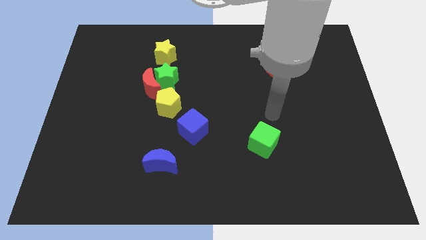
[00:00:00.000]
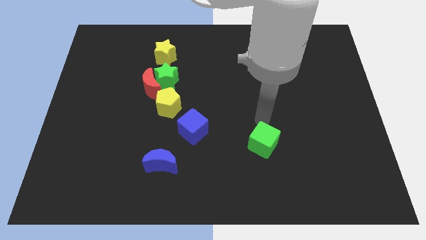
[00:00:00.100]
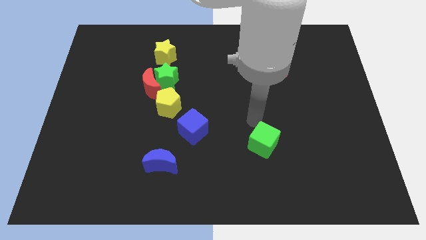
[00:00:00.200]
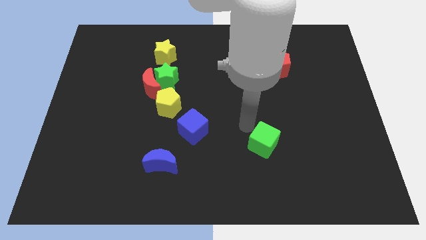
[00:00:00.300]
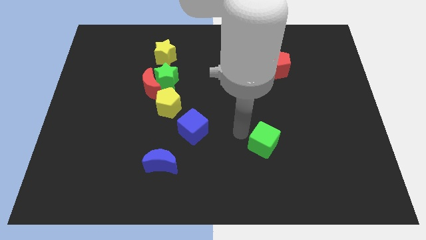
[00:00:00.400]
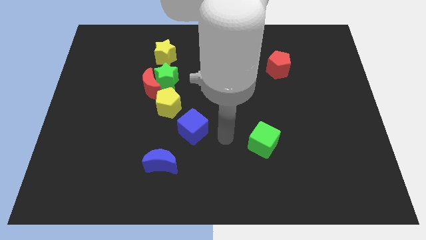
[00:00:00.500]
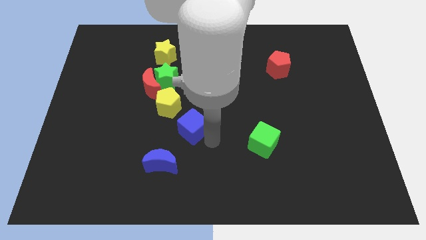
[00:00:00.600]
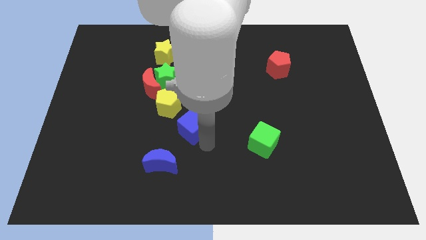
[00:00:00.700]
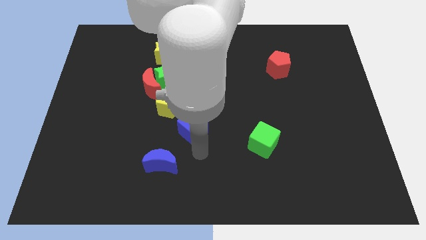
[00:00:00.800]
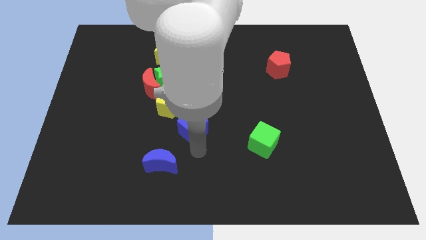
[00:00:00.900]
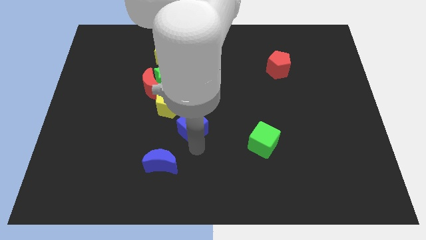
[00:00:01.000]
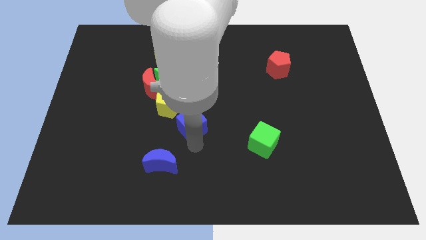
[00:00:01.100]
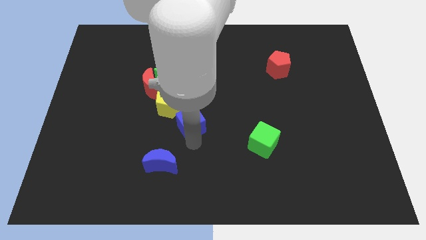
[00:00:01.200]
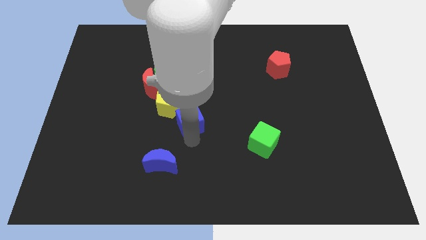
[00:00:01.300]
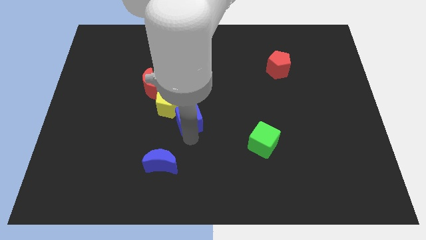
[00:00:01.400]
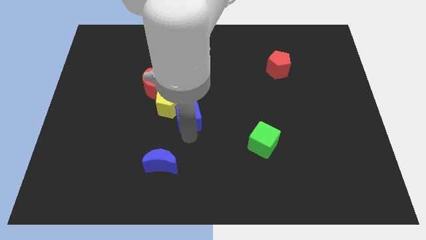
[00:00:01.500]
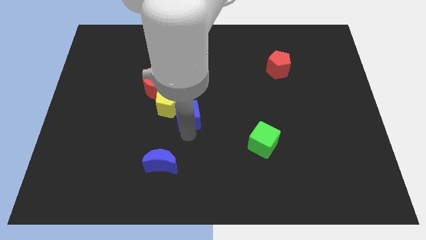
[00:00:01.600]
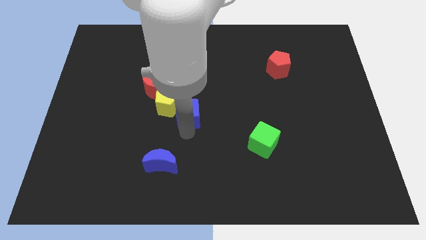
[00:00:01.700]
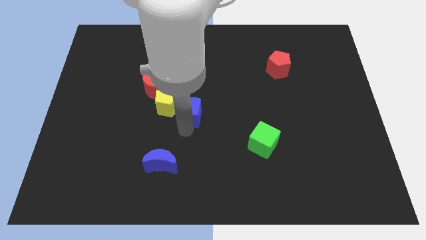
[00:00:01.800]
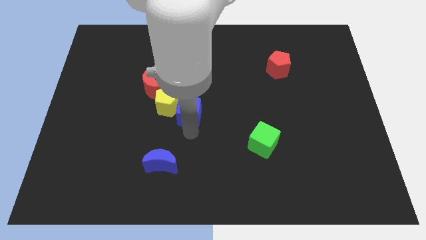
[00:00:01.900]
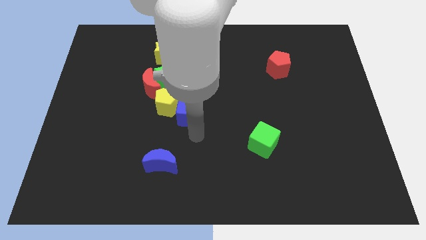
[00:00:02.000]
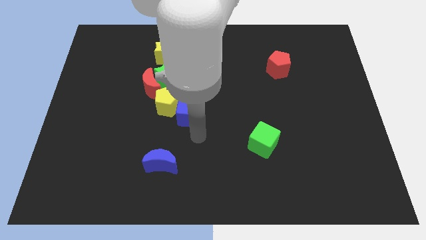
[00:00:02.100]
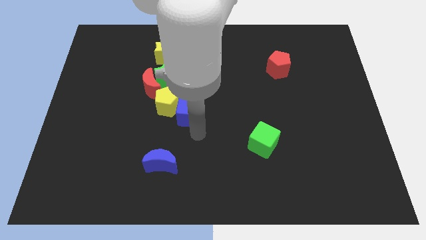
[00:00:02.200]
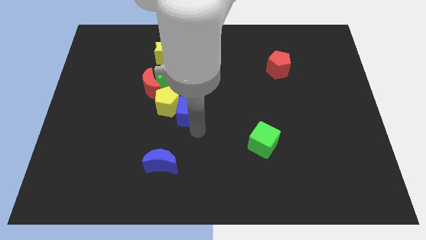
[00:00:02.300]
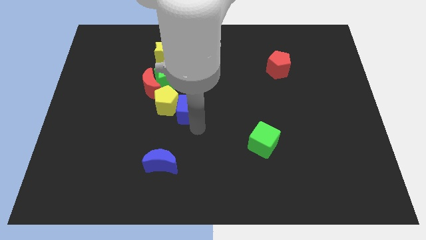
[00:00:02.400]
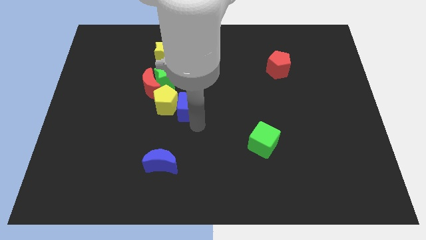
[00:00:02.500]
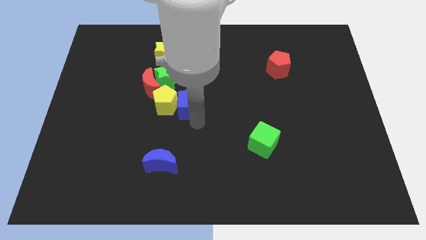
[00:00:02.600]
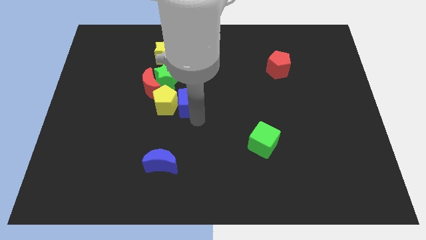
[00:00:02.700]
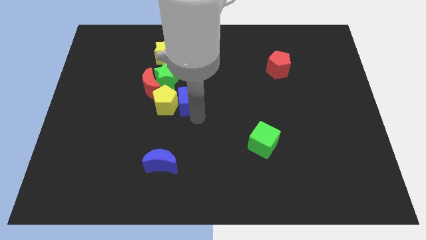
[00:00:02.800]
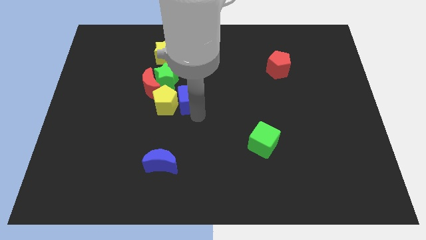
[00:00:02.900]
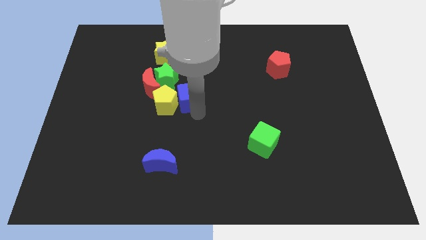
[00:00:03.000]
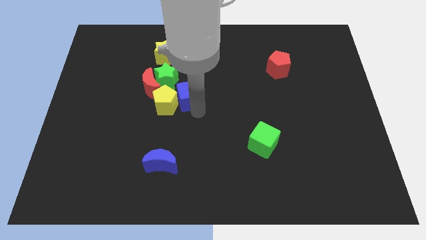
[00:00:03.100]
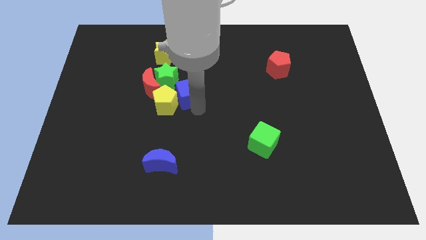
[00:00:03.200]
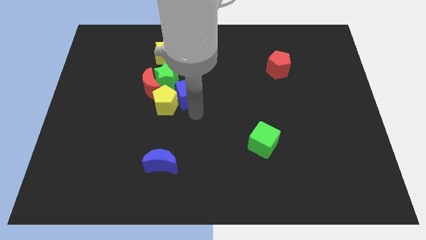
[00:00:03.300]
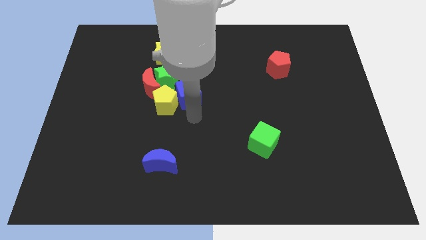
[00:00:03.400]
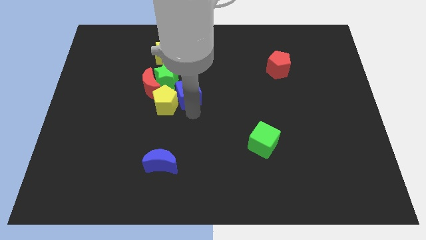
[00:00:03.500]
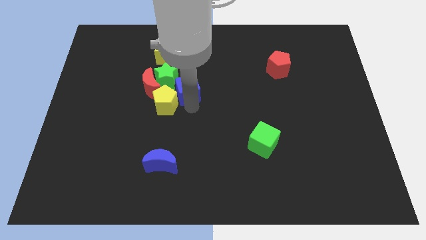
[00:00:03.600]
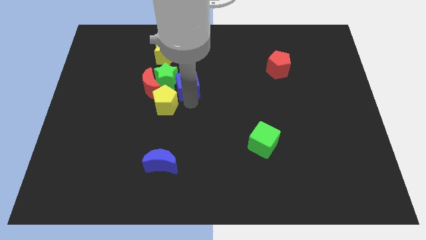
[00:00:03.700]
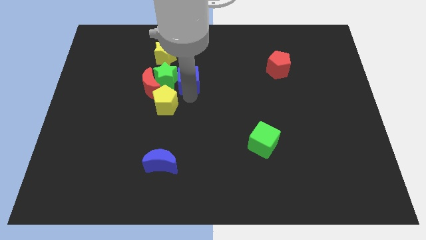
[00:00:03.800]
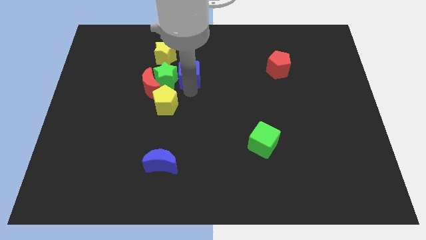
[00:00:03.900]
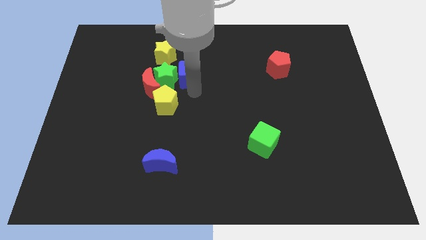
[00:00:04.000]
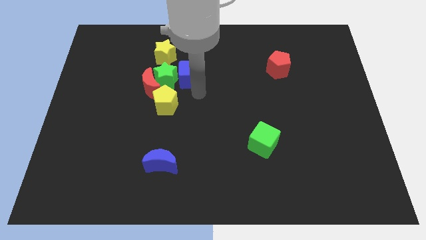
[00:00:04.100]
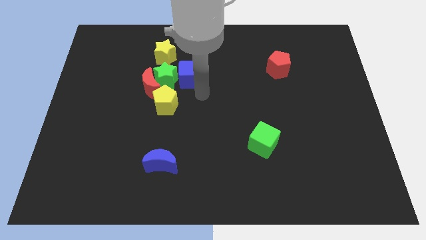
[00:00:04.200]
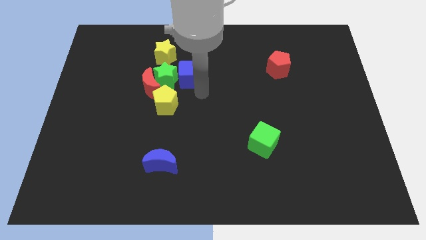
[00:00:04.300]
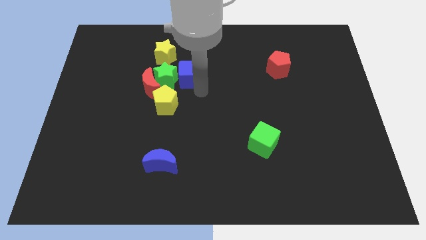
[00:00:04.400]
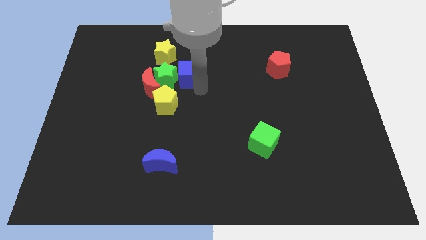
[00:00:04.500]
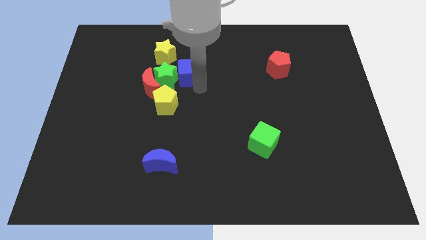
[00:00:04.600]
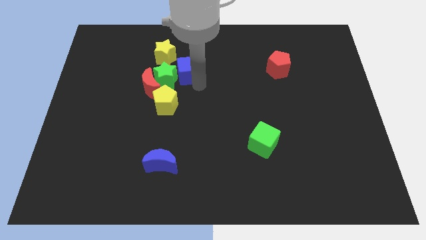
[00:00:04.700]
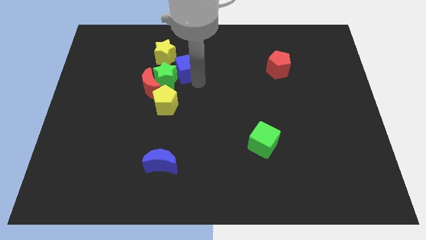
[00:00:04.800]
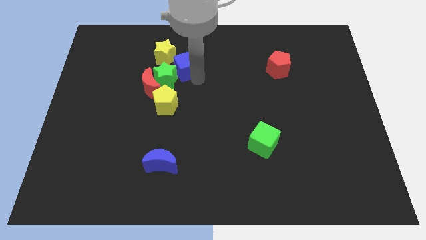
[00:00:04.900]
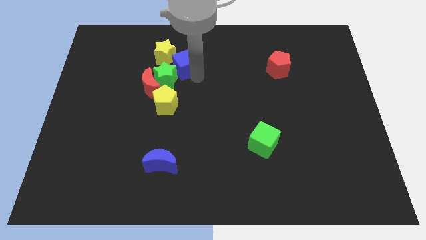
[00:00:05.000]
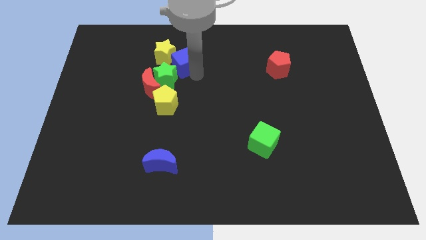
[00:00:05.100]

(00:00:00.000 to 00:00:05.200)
slide the blue cube close to the yellow star

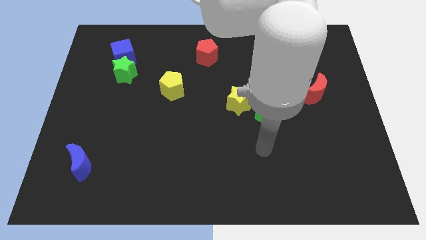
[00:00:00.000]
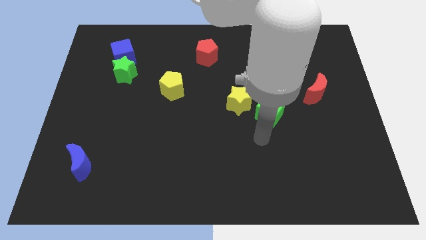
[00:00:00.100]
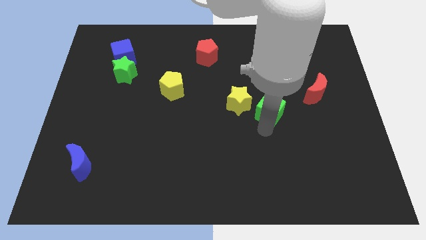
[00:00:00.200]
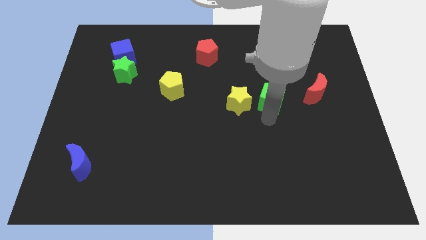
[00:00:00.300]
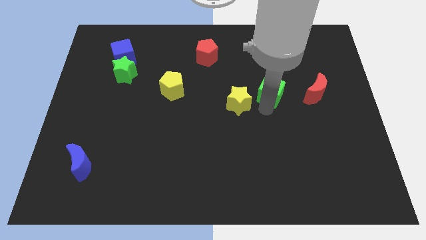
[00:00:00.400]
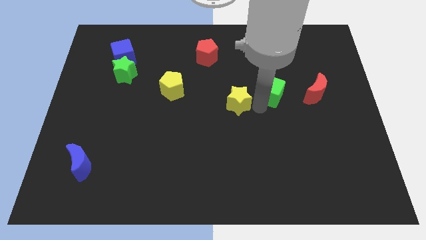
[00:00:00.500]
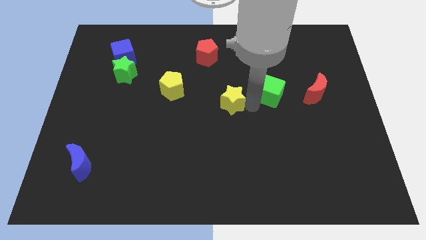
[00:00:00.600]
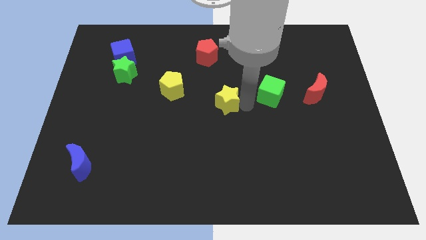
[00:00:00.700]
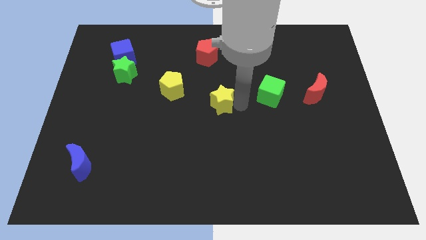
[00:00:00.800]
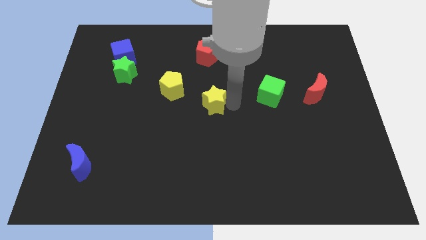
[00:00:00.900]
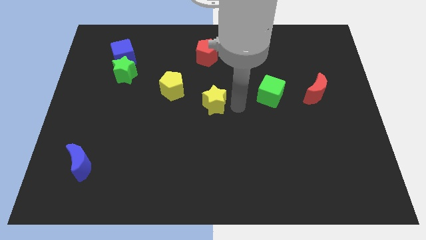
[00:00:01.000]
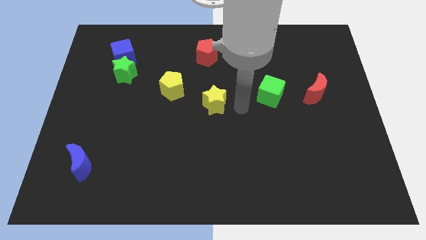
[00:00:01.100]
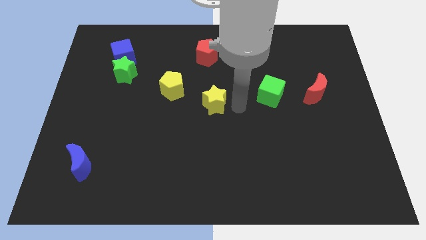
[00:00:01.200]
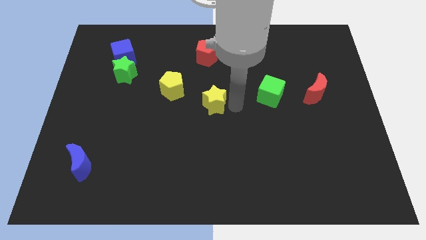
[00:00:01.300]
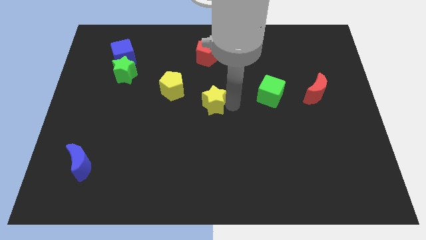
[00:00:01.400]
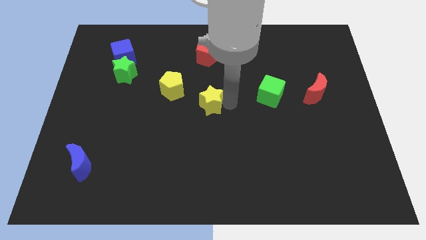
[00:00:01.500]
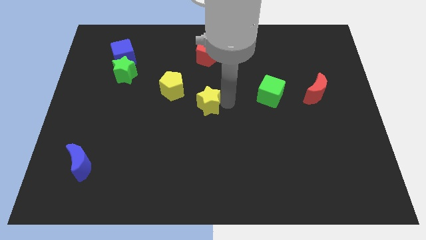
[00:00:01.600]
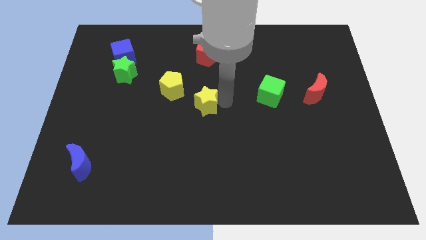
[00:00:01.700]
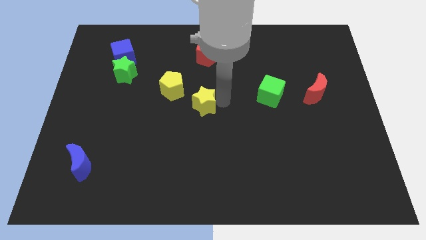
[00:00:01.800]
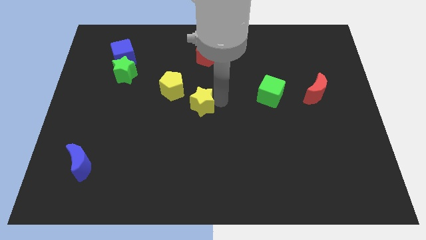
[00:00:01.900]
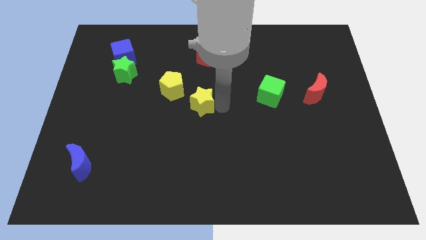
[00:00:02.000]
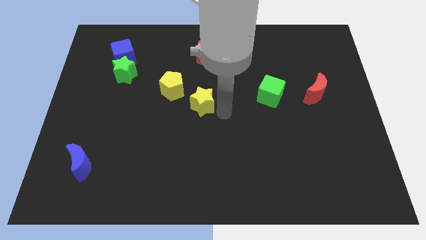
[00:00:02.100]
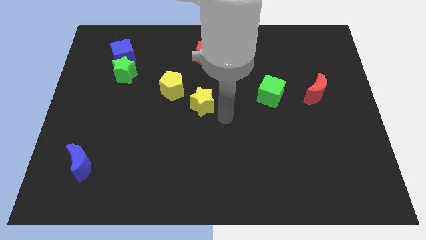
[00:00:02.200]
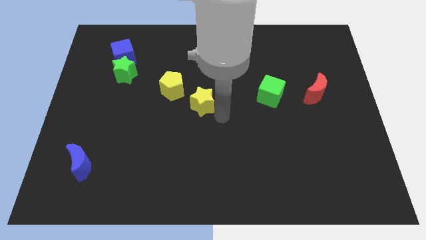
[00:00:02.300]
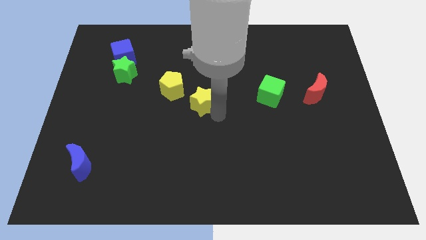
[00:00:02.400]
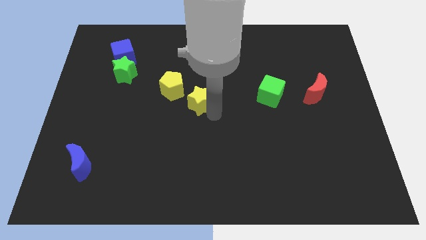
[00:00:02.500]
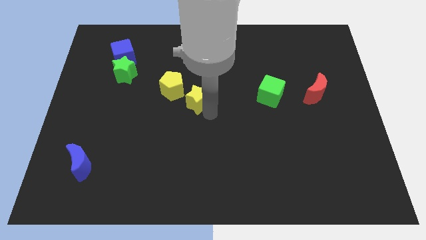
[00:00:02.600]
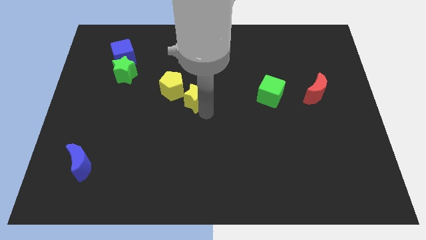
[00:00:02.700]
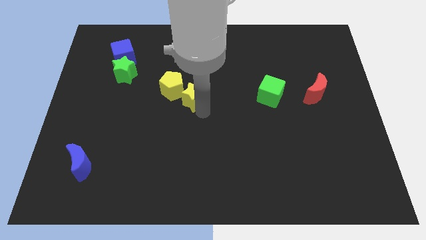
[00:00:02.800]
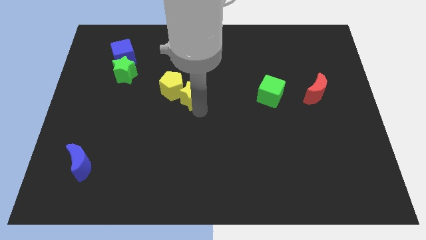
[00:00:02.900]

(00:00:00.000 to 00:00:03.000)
move the yellow star towards the yellow pentagon
